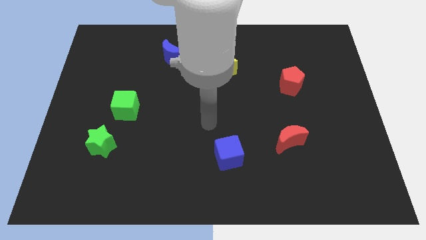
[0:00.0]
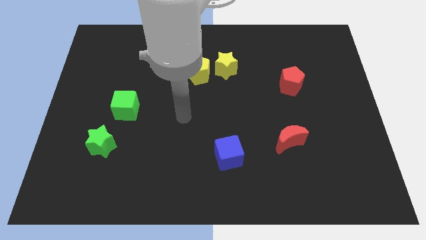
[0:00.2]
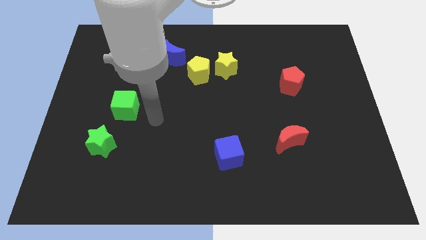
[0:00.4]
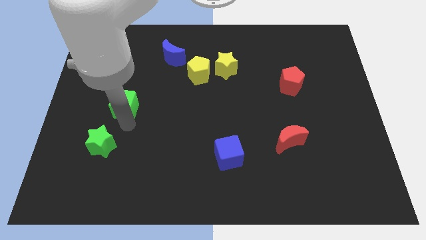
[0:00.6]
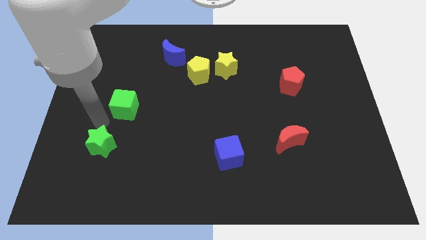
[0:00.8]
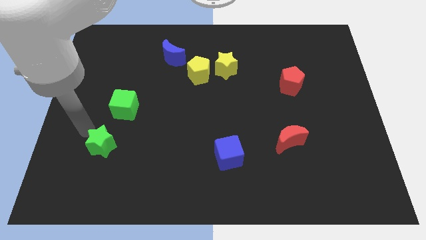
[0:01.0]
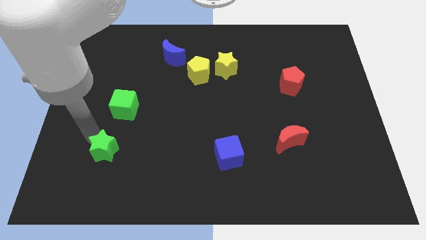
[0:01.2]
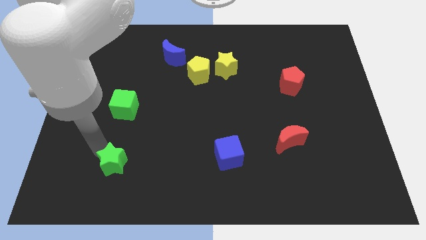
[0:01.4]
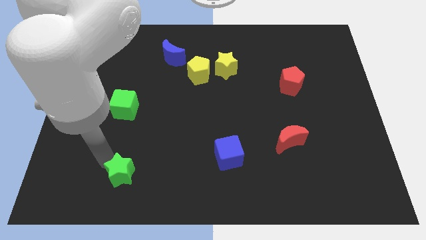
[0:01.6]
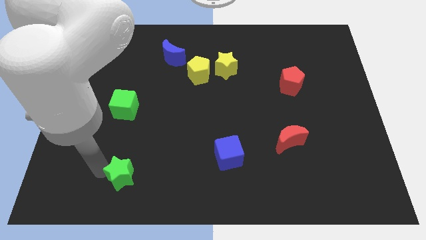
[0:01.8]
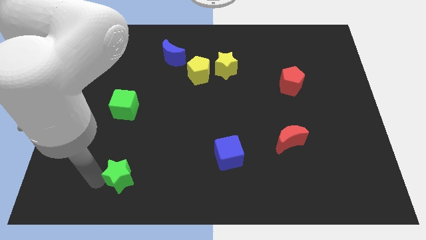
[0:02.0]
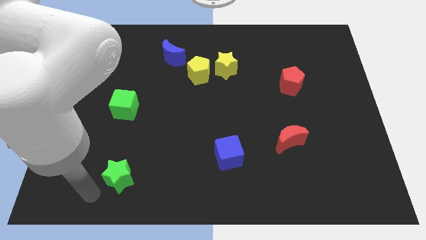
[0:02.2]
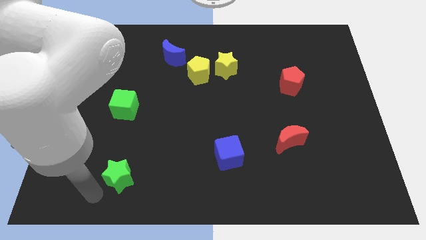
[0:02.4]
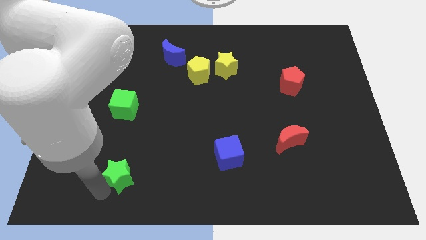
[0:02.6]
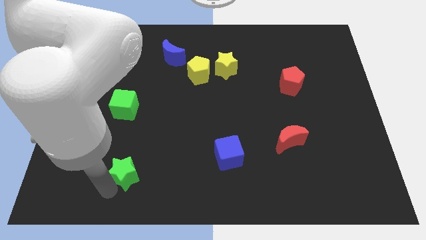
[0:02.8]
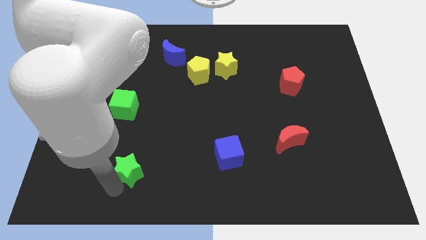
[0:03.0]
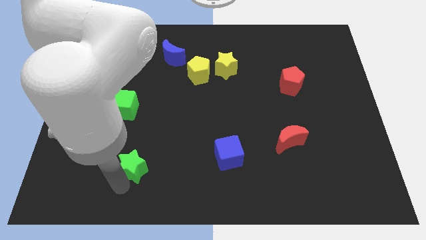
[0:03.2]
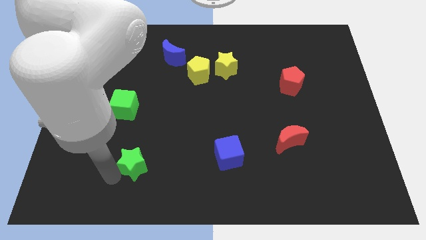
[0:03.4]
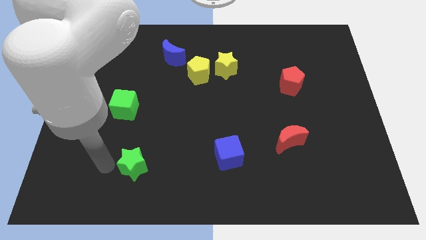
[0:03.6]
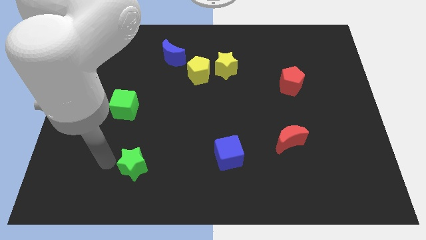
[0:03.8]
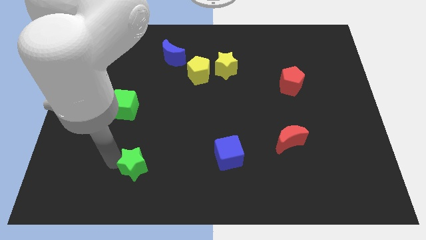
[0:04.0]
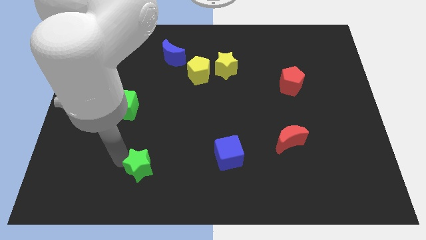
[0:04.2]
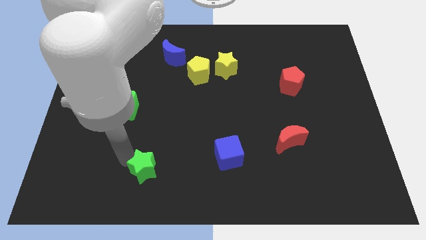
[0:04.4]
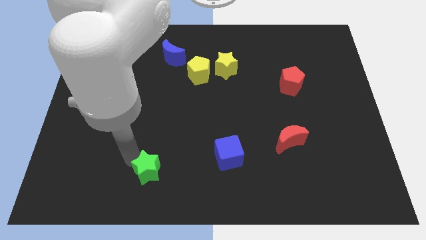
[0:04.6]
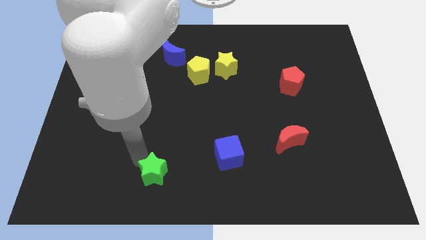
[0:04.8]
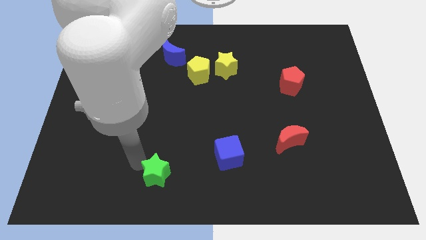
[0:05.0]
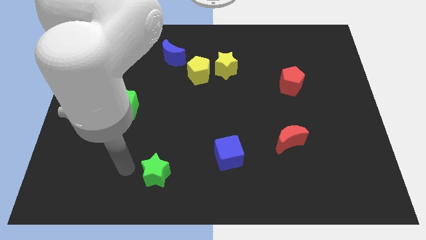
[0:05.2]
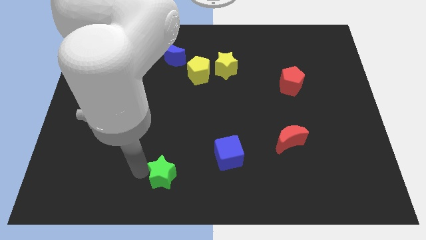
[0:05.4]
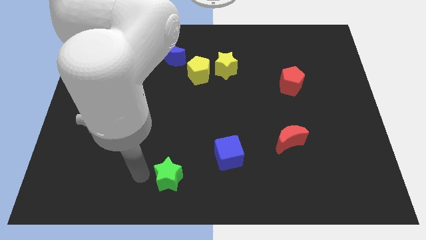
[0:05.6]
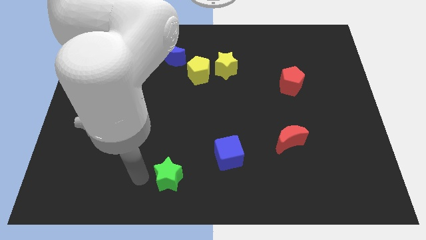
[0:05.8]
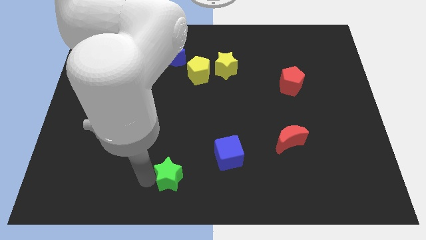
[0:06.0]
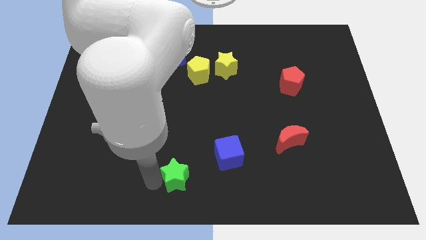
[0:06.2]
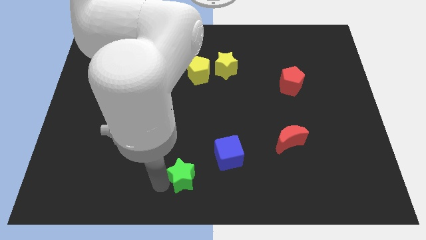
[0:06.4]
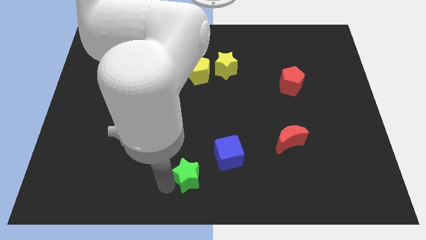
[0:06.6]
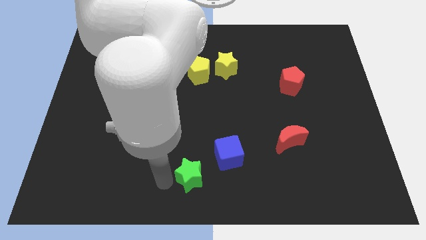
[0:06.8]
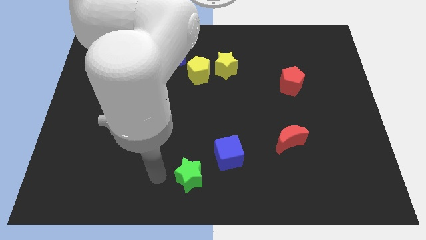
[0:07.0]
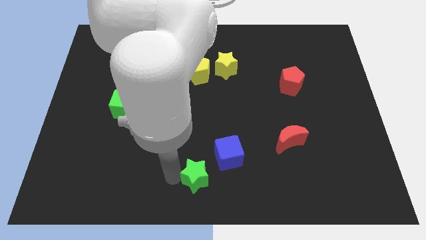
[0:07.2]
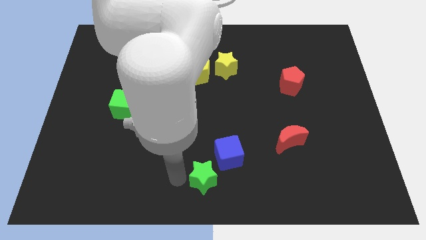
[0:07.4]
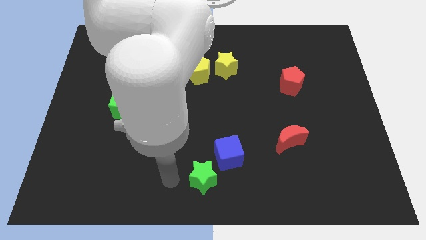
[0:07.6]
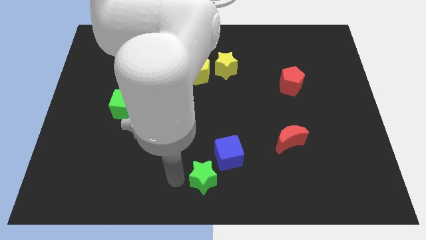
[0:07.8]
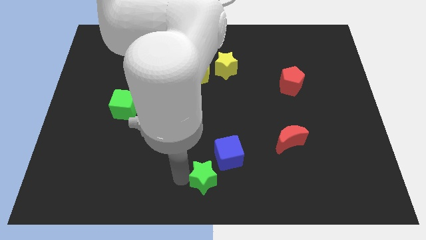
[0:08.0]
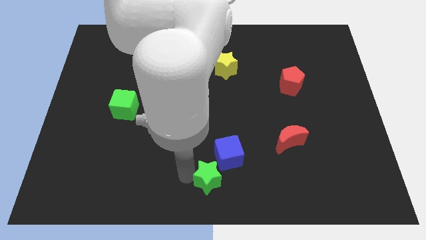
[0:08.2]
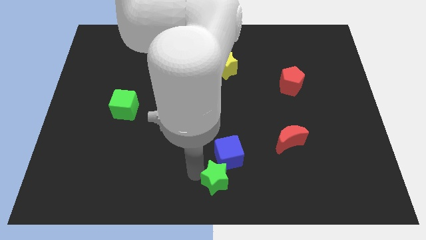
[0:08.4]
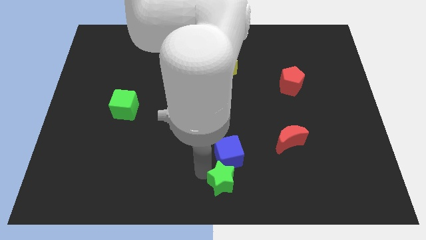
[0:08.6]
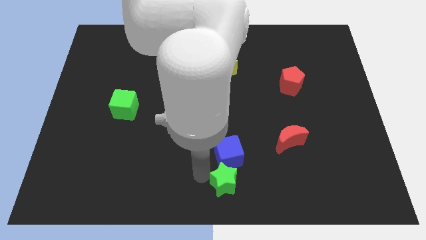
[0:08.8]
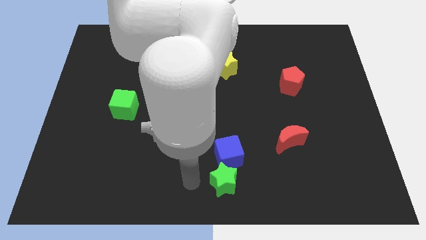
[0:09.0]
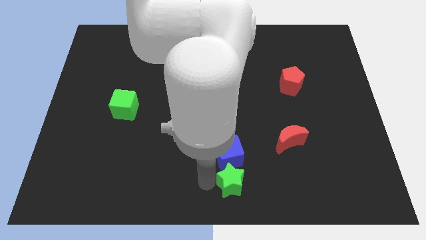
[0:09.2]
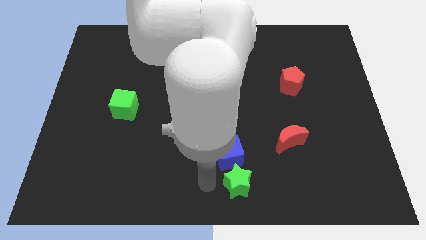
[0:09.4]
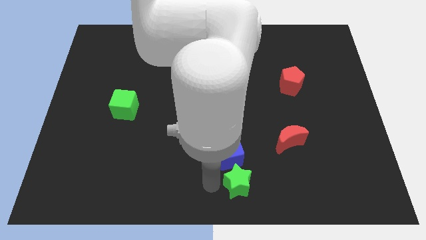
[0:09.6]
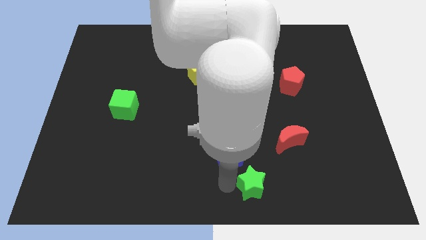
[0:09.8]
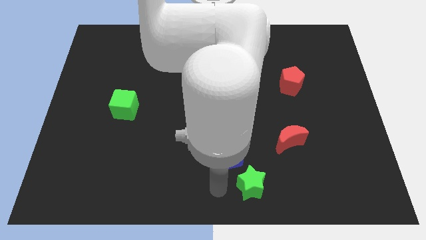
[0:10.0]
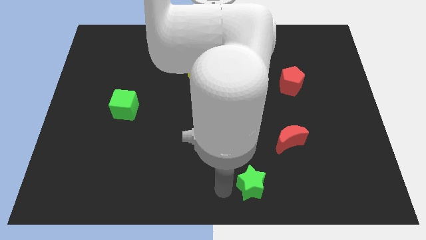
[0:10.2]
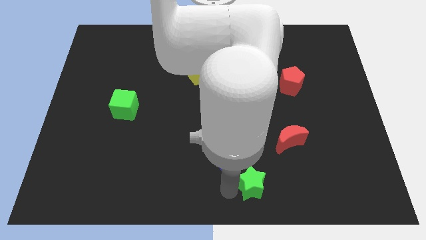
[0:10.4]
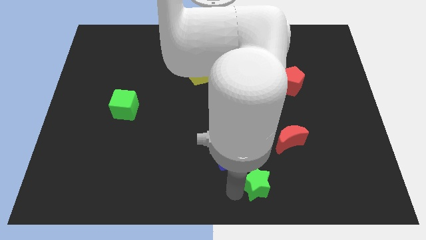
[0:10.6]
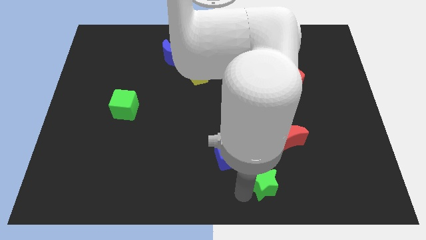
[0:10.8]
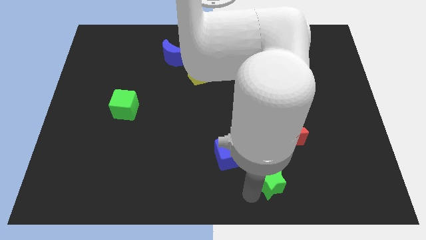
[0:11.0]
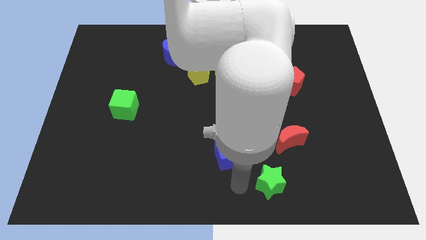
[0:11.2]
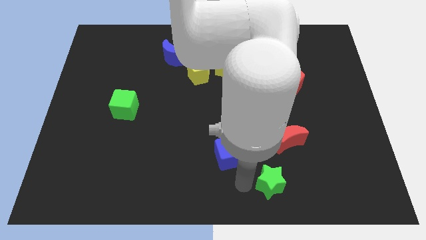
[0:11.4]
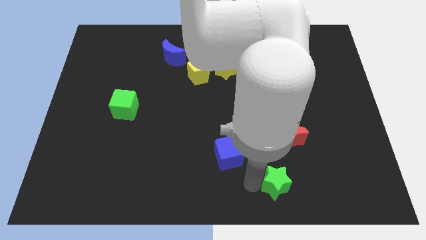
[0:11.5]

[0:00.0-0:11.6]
put the green star below the red moon

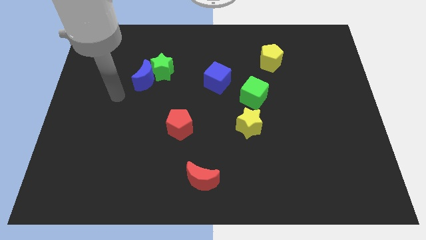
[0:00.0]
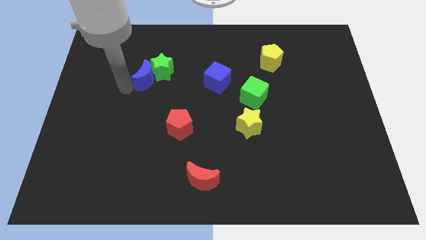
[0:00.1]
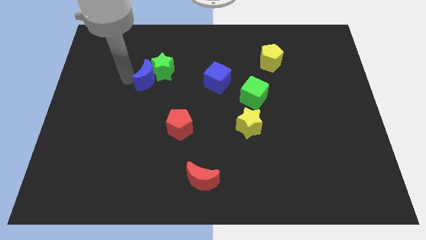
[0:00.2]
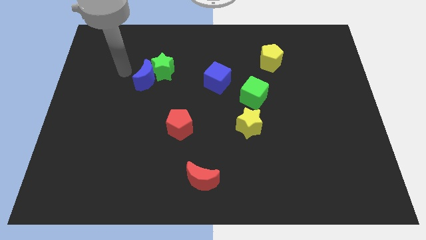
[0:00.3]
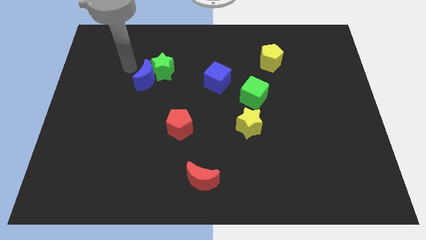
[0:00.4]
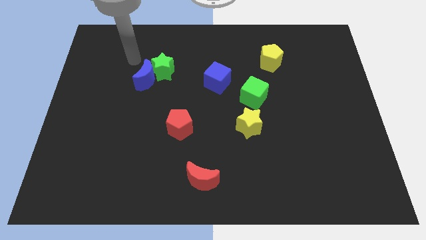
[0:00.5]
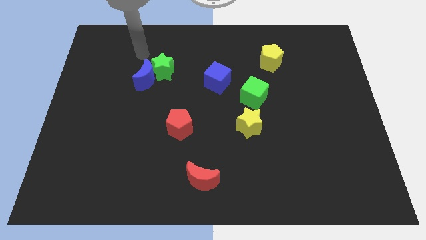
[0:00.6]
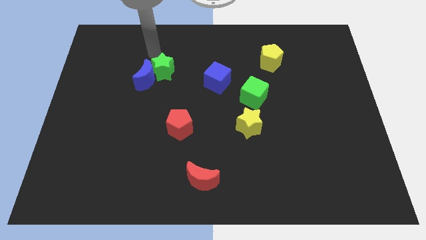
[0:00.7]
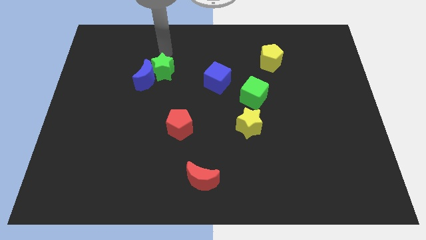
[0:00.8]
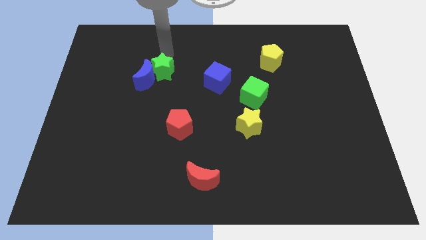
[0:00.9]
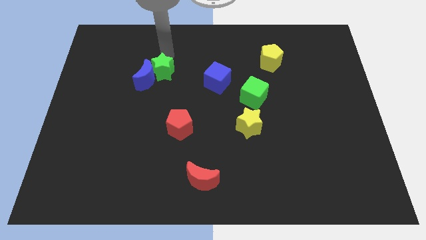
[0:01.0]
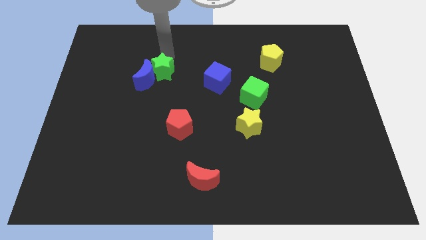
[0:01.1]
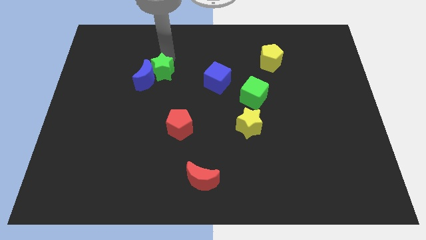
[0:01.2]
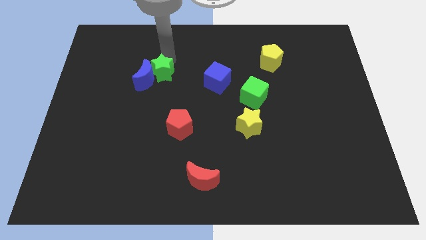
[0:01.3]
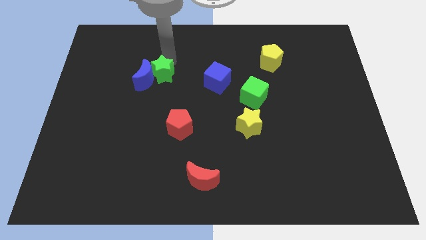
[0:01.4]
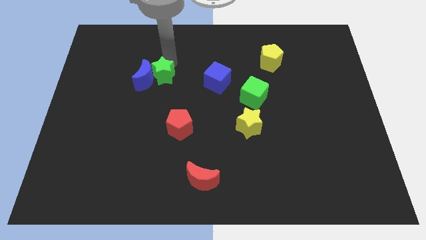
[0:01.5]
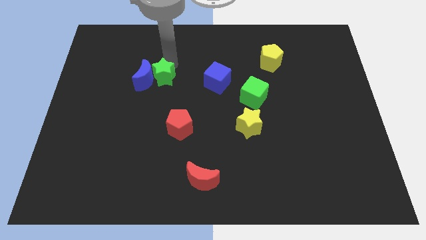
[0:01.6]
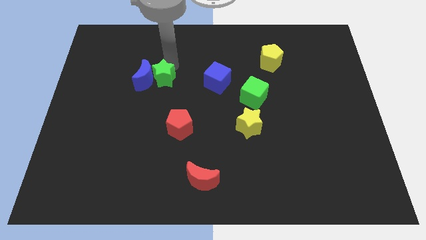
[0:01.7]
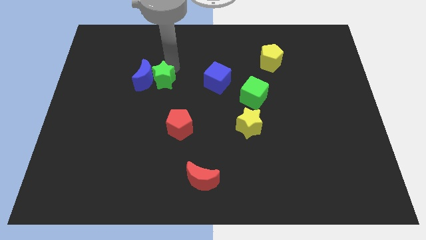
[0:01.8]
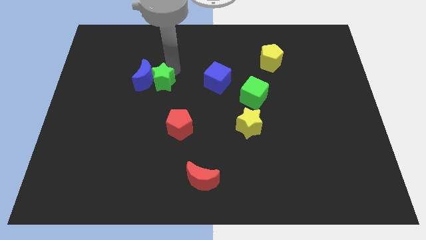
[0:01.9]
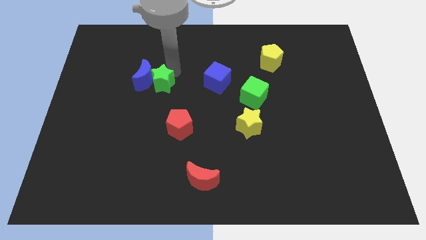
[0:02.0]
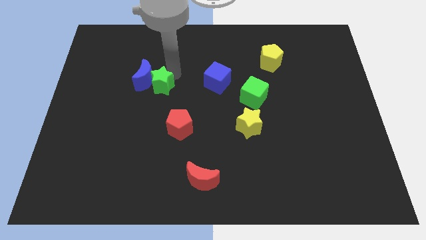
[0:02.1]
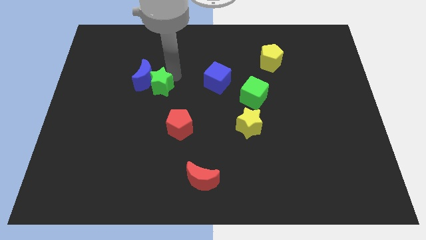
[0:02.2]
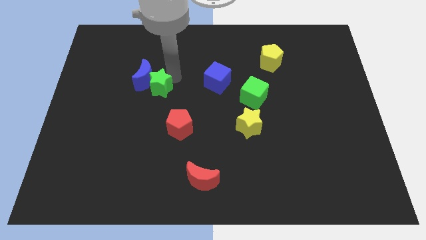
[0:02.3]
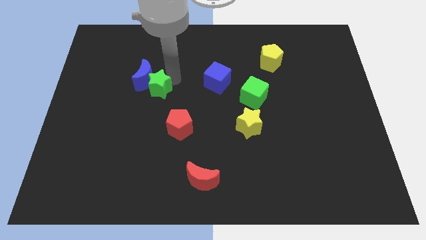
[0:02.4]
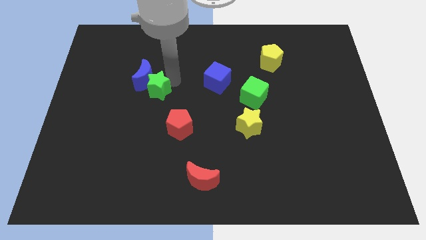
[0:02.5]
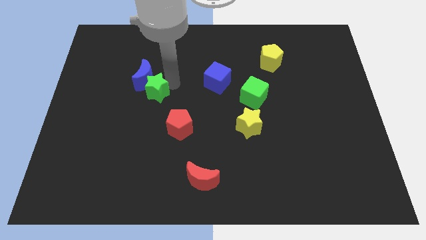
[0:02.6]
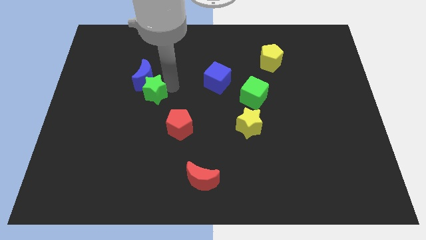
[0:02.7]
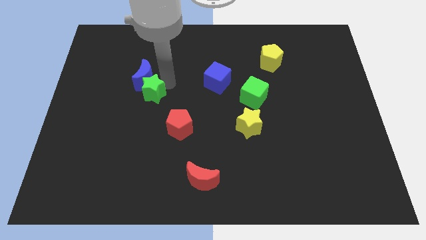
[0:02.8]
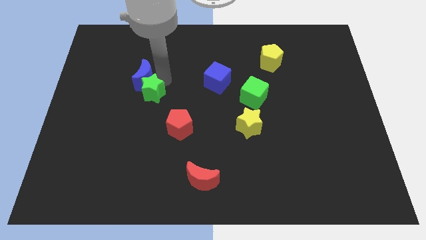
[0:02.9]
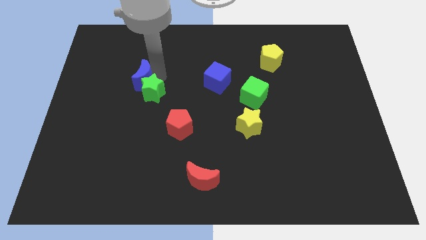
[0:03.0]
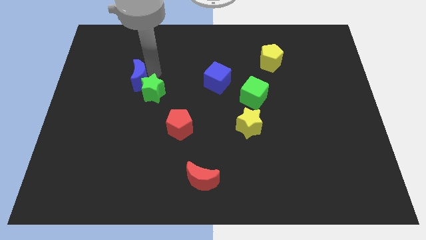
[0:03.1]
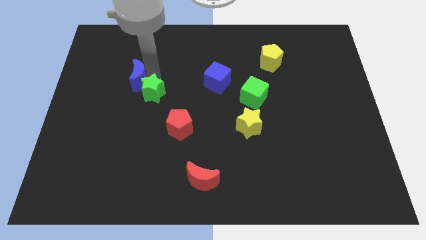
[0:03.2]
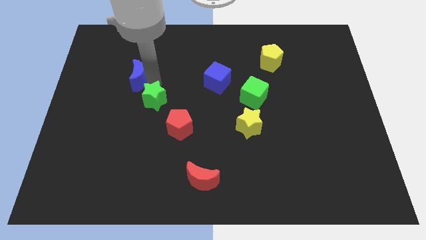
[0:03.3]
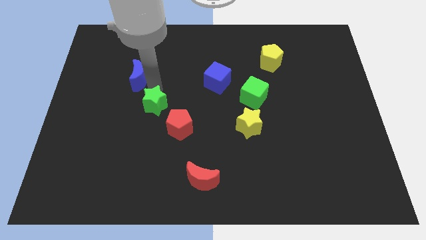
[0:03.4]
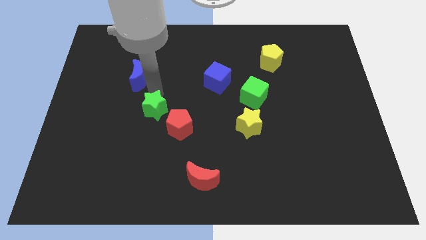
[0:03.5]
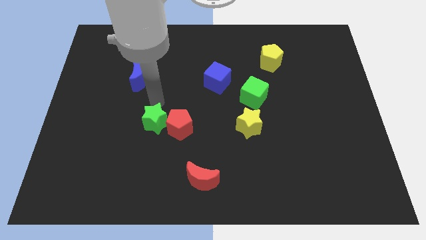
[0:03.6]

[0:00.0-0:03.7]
move the green star diagonally down and to the left of the red pentagon
